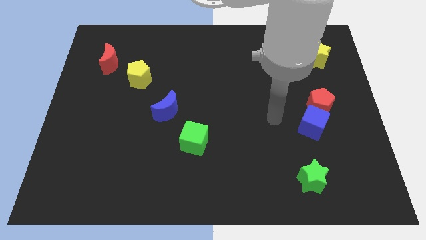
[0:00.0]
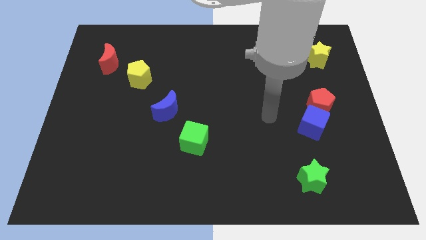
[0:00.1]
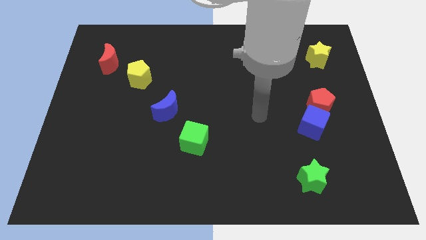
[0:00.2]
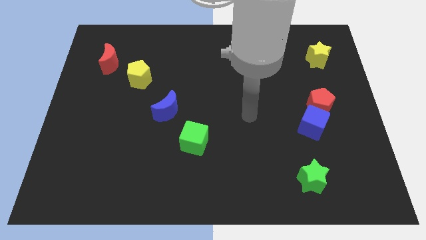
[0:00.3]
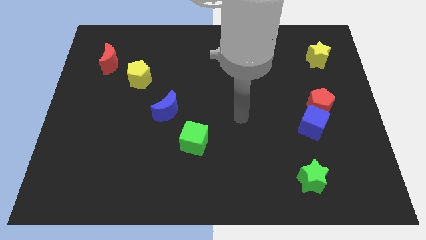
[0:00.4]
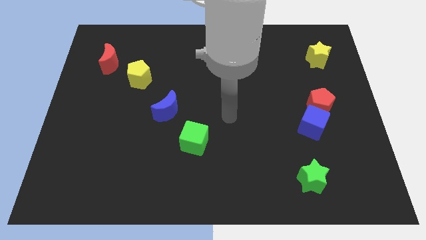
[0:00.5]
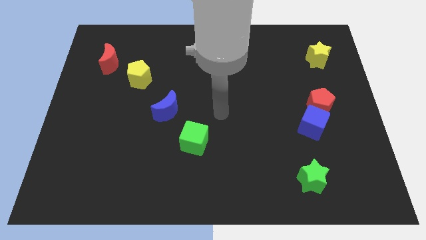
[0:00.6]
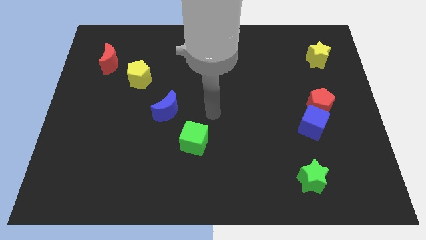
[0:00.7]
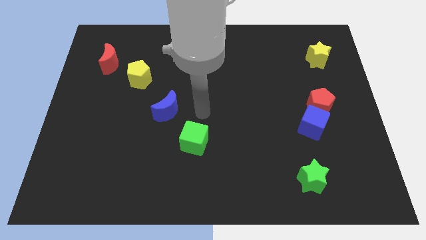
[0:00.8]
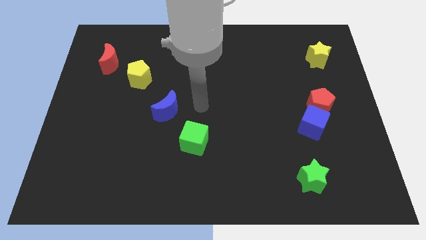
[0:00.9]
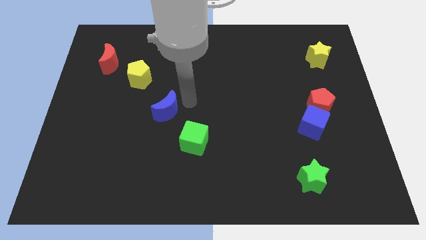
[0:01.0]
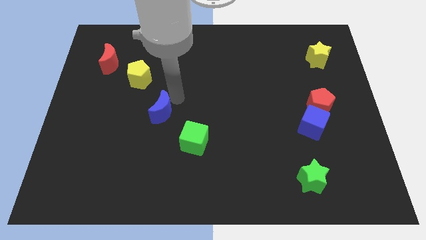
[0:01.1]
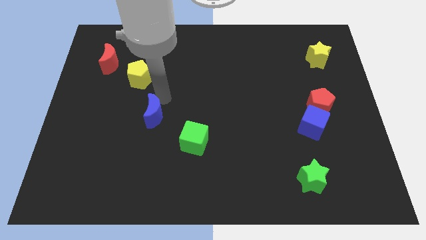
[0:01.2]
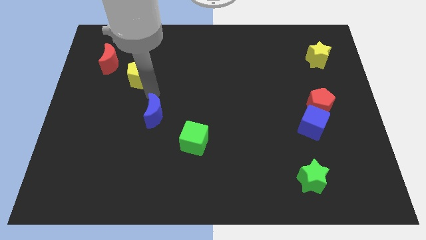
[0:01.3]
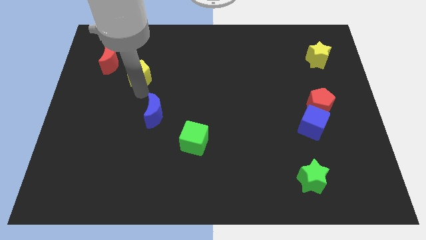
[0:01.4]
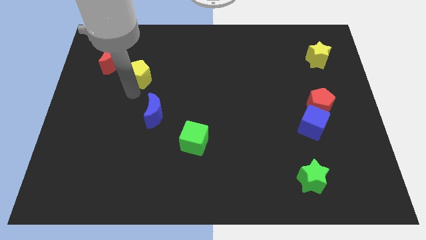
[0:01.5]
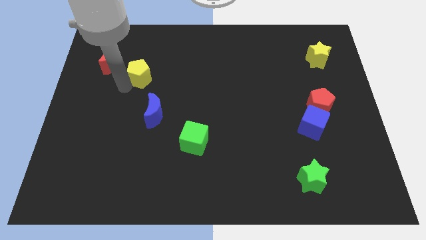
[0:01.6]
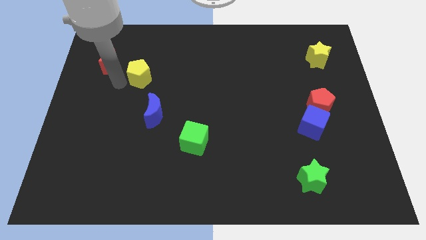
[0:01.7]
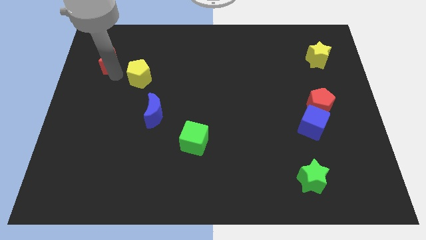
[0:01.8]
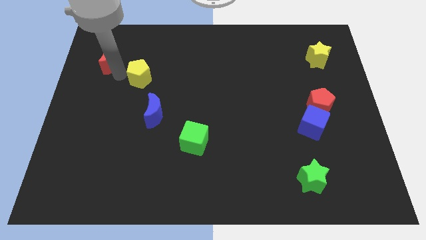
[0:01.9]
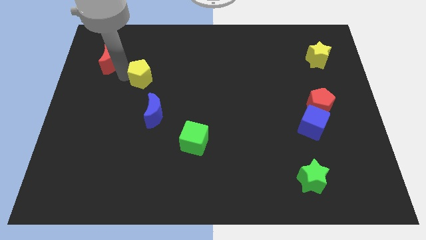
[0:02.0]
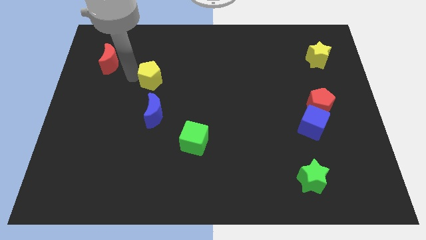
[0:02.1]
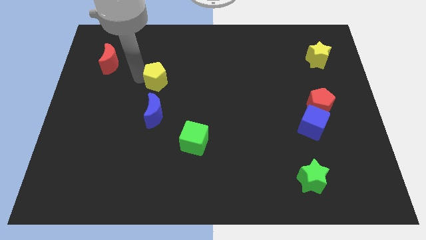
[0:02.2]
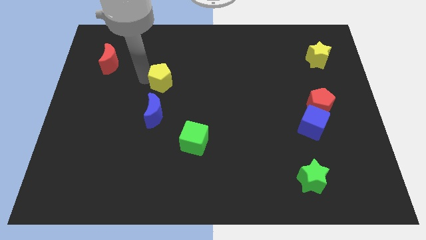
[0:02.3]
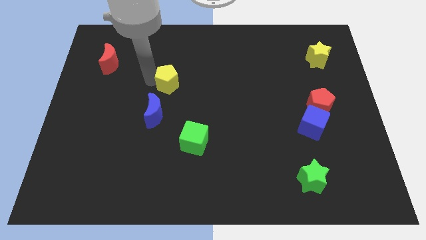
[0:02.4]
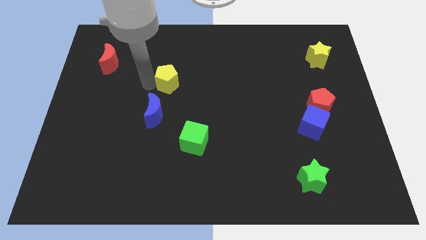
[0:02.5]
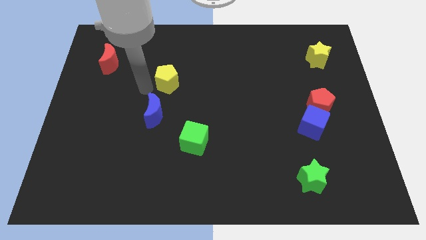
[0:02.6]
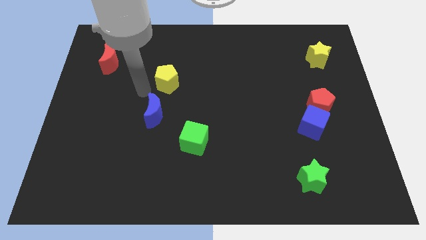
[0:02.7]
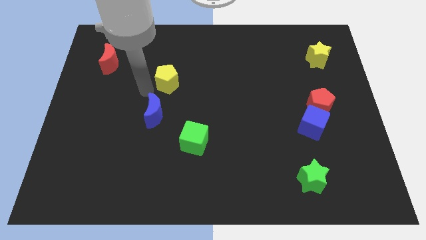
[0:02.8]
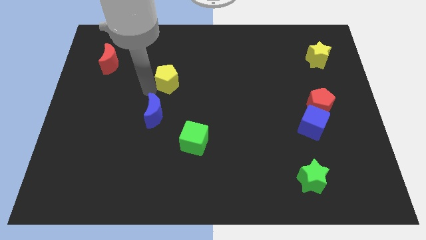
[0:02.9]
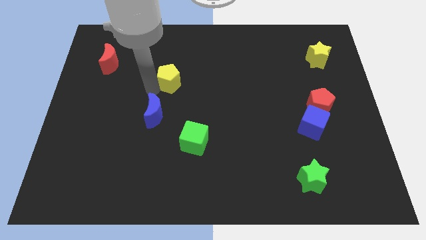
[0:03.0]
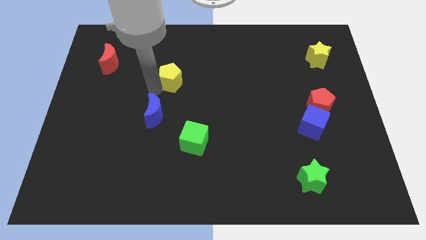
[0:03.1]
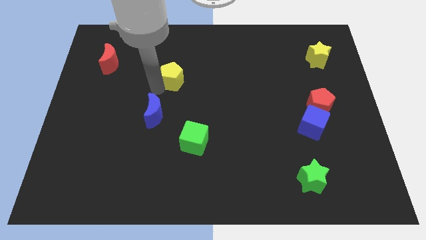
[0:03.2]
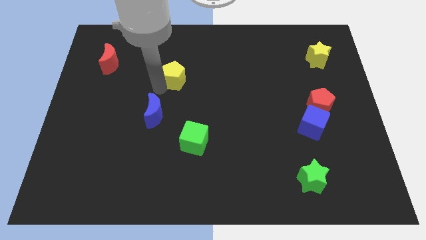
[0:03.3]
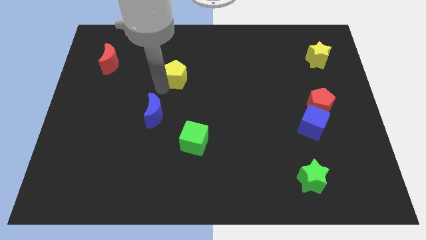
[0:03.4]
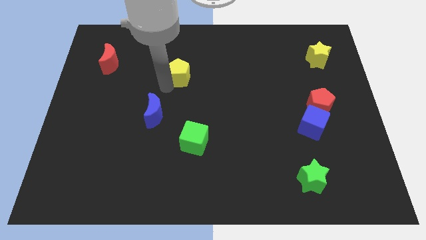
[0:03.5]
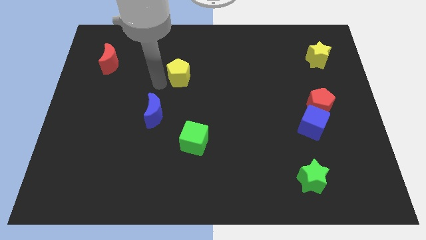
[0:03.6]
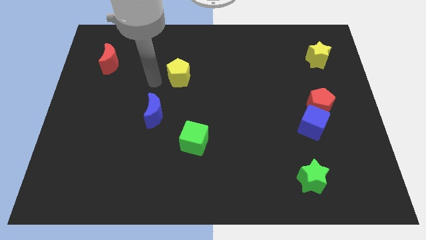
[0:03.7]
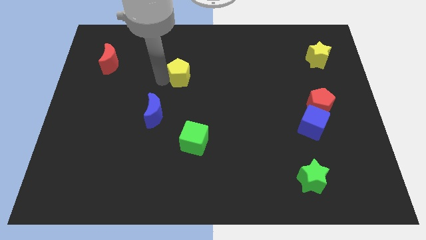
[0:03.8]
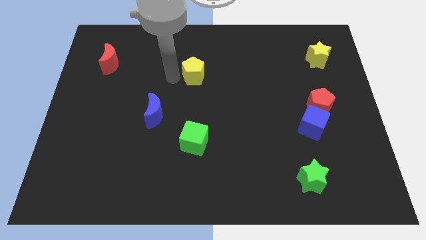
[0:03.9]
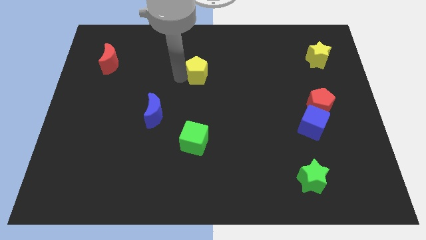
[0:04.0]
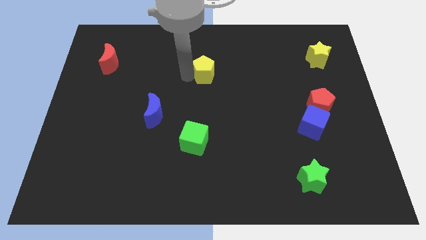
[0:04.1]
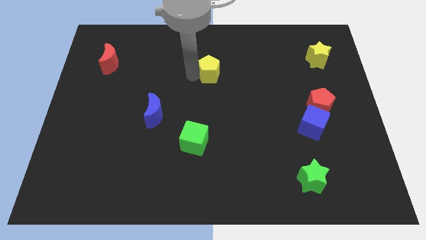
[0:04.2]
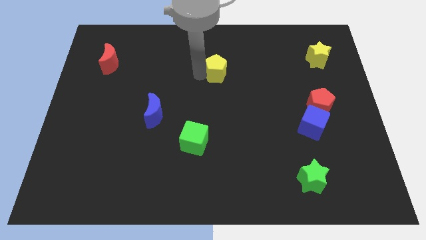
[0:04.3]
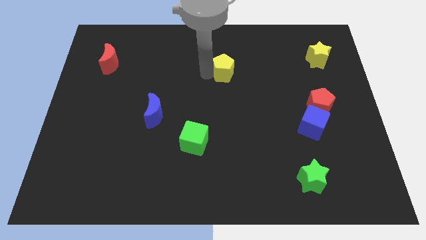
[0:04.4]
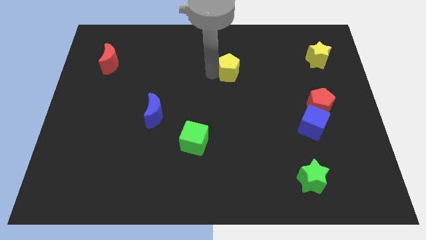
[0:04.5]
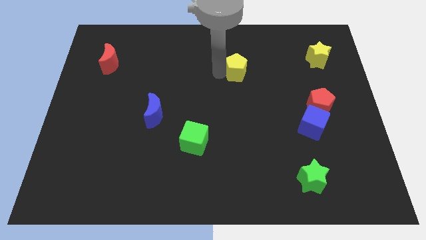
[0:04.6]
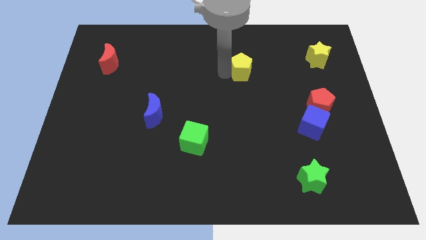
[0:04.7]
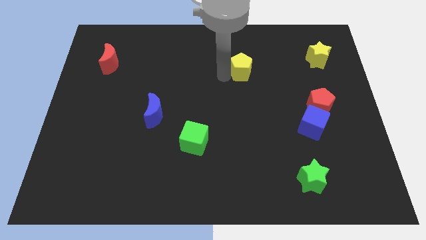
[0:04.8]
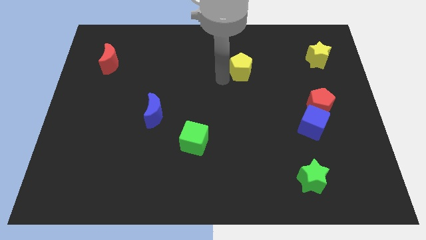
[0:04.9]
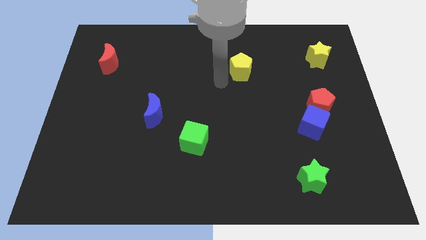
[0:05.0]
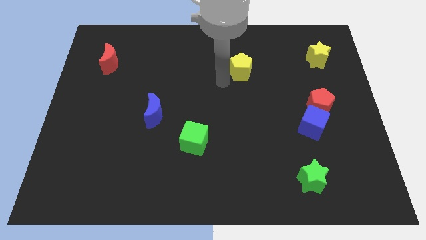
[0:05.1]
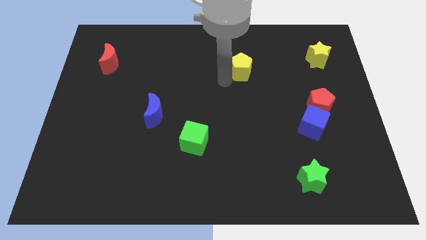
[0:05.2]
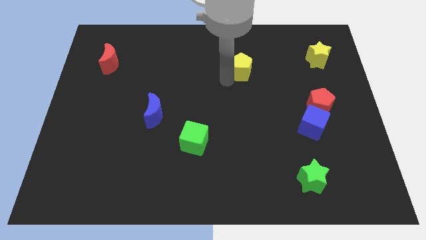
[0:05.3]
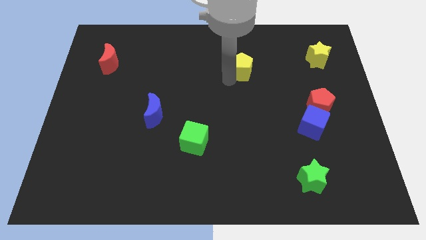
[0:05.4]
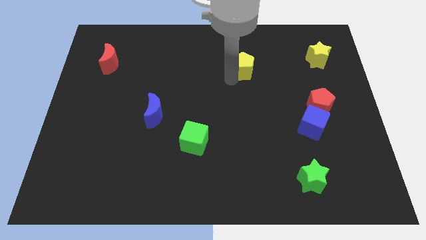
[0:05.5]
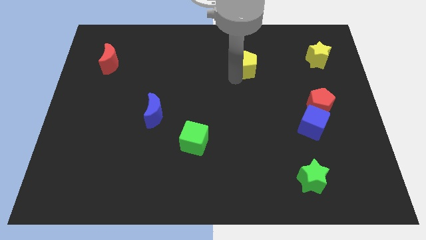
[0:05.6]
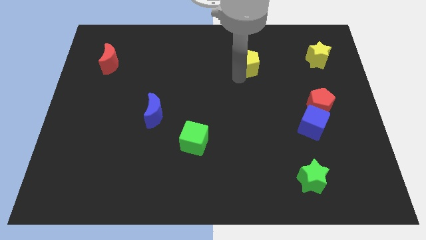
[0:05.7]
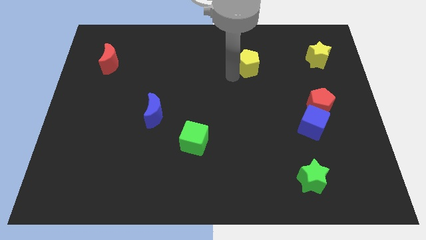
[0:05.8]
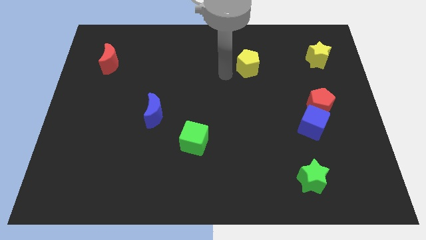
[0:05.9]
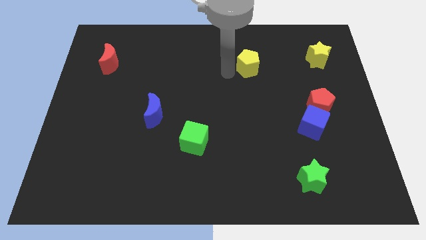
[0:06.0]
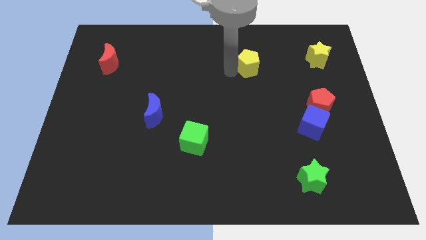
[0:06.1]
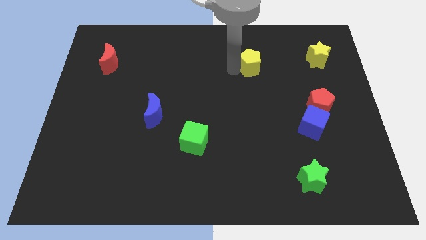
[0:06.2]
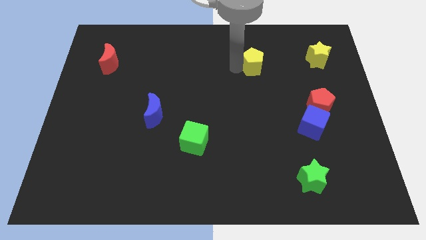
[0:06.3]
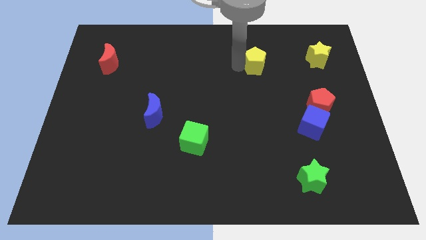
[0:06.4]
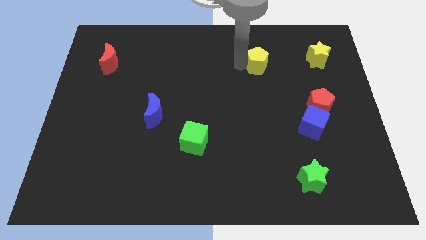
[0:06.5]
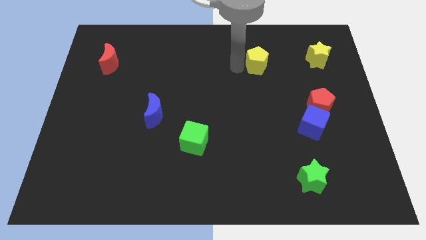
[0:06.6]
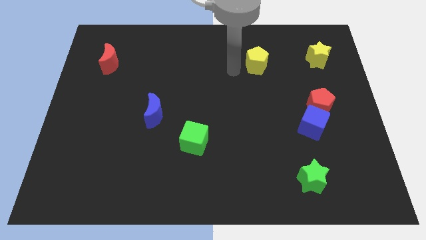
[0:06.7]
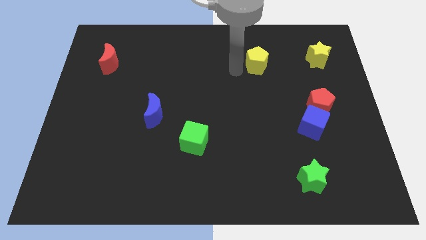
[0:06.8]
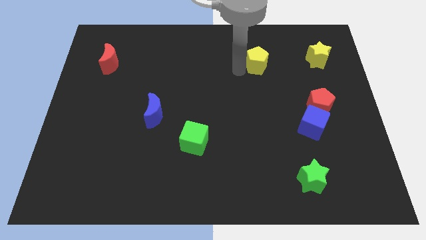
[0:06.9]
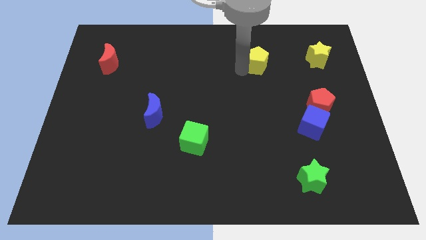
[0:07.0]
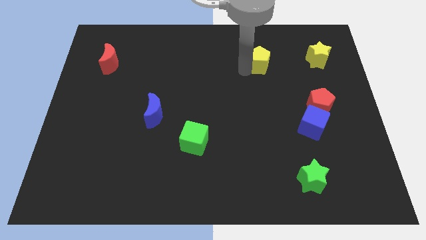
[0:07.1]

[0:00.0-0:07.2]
put the yellow pentagon to the left of the yellow star
